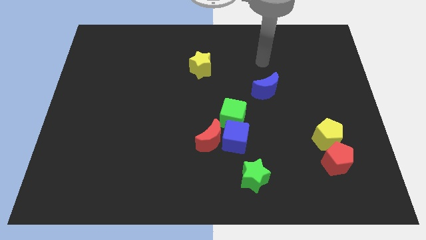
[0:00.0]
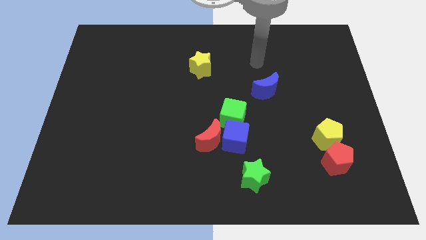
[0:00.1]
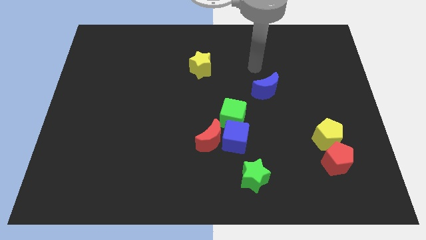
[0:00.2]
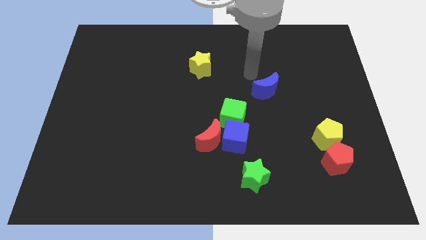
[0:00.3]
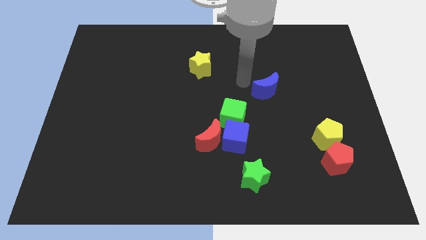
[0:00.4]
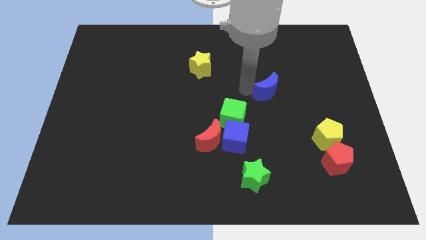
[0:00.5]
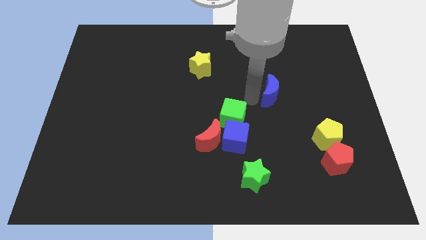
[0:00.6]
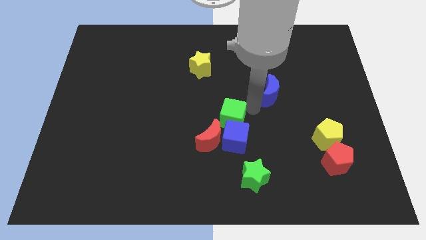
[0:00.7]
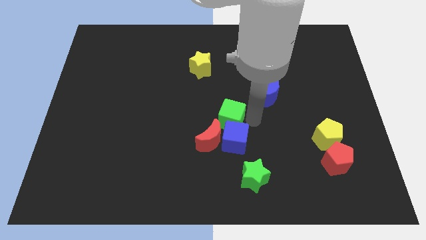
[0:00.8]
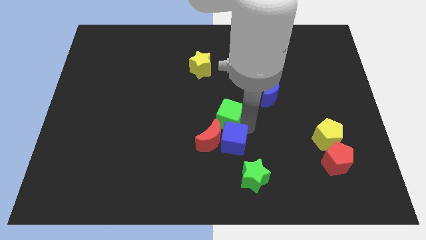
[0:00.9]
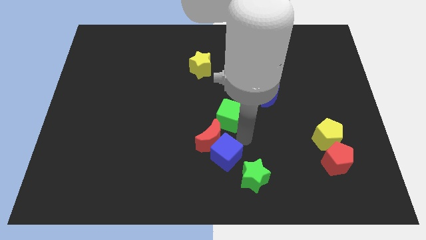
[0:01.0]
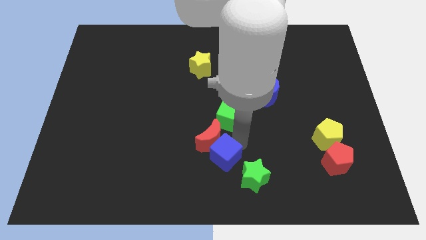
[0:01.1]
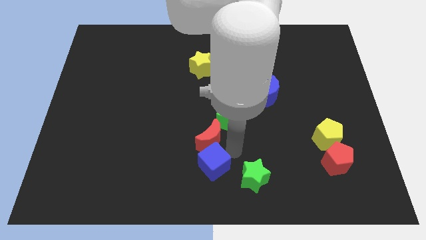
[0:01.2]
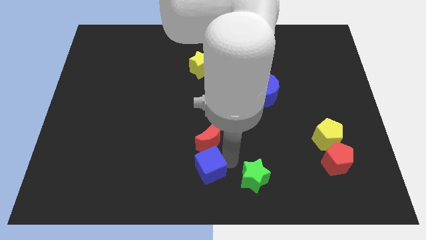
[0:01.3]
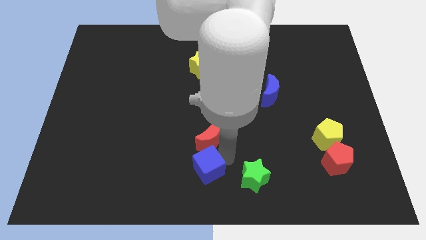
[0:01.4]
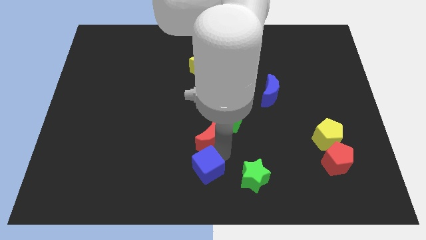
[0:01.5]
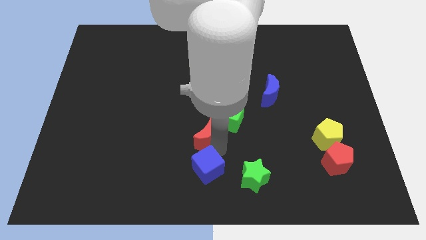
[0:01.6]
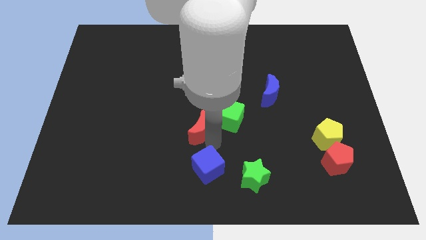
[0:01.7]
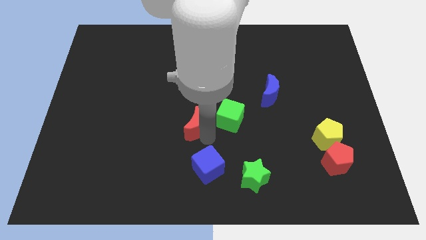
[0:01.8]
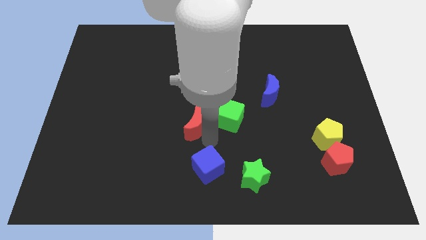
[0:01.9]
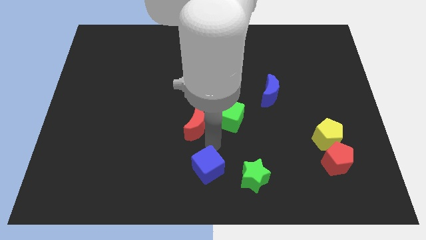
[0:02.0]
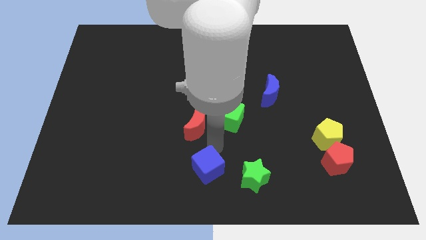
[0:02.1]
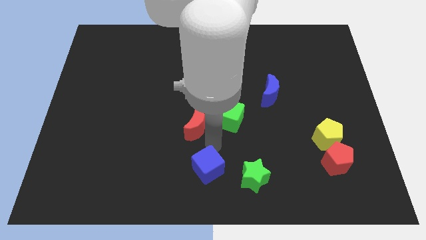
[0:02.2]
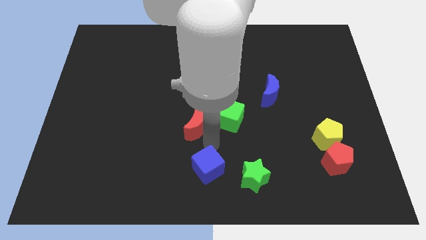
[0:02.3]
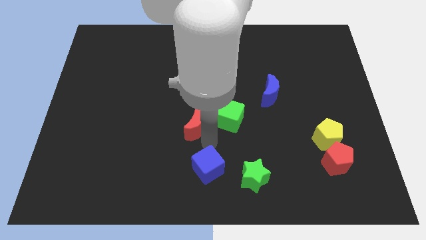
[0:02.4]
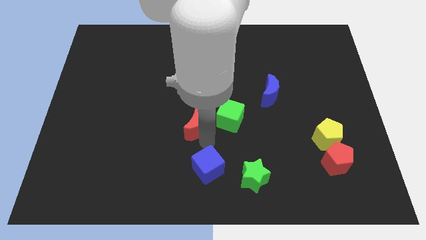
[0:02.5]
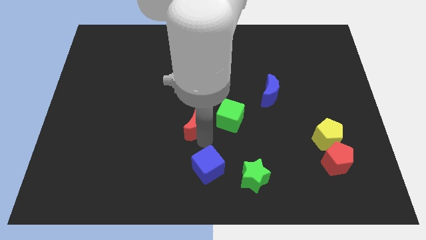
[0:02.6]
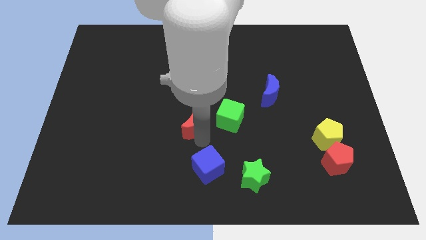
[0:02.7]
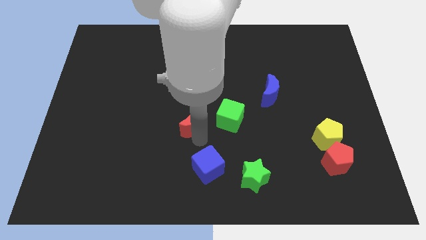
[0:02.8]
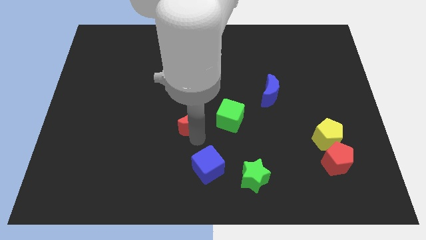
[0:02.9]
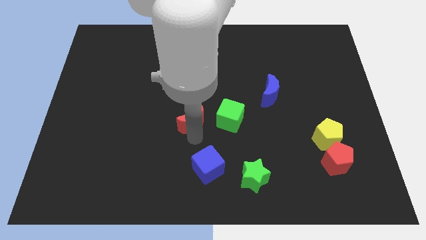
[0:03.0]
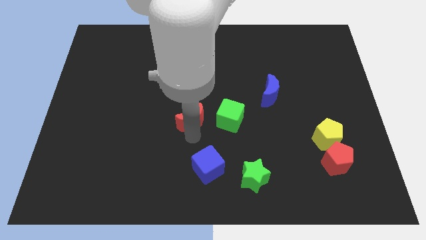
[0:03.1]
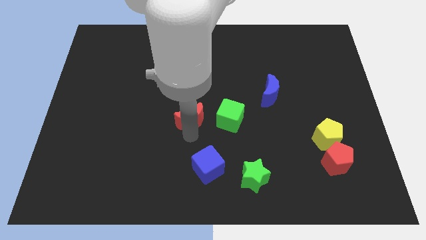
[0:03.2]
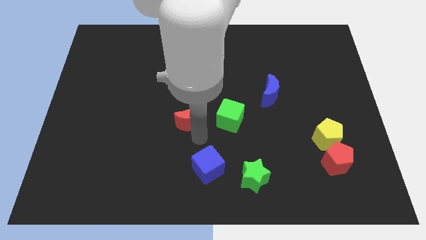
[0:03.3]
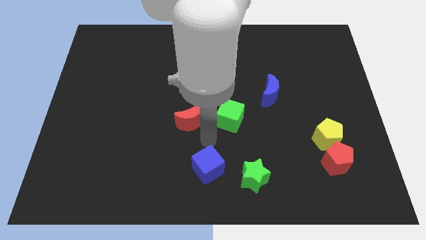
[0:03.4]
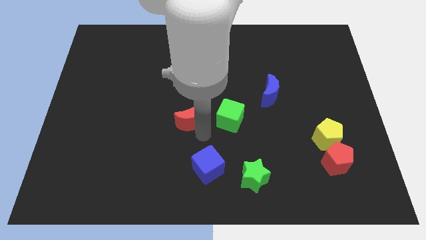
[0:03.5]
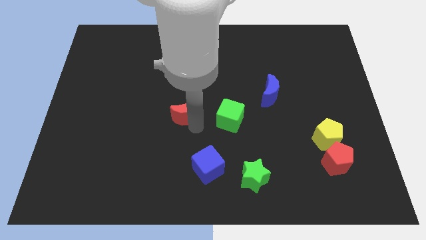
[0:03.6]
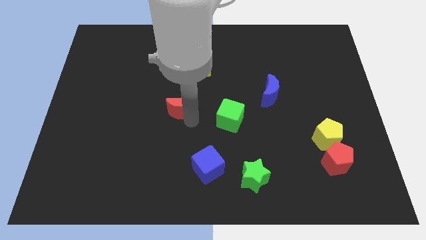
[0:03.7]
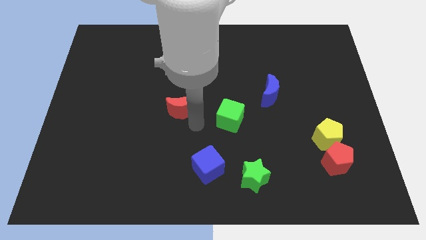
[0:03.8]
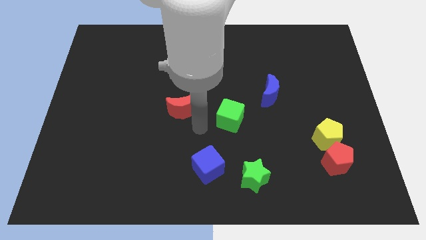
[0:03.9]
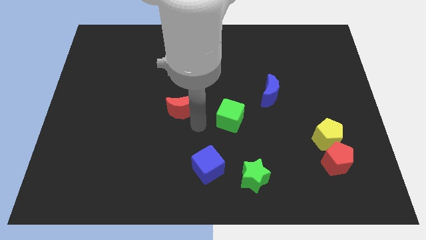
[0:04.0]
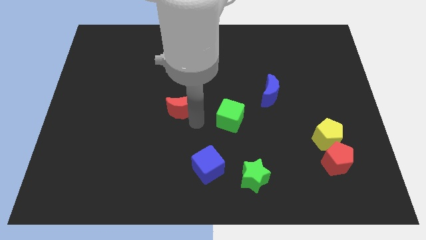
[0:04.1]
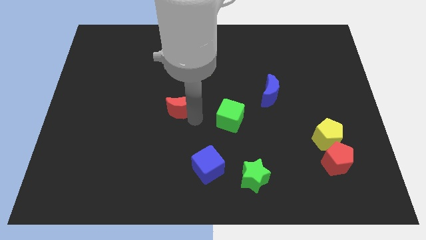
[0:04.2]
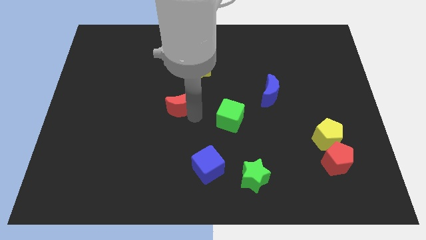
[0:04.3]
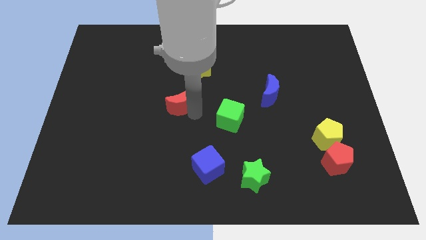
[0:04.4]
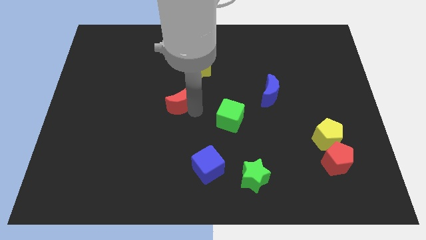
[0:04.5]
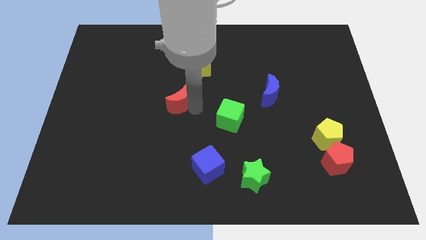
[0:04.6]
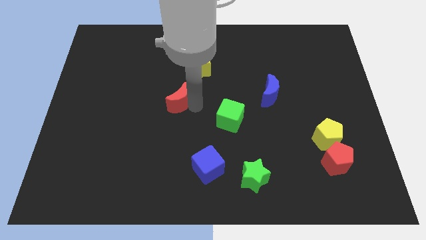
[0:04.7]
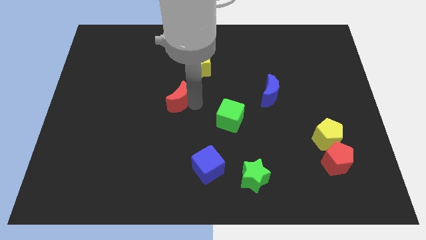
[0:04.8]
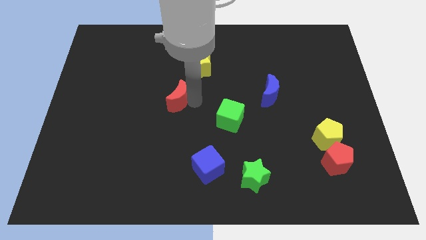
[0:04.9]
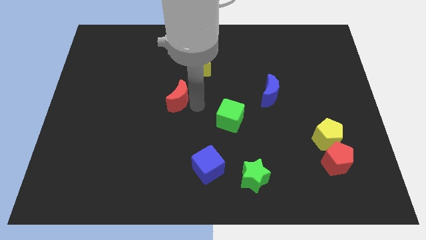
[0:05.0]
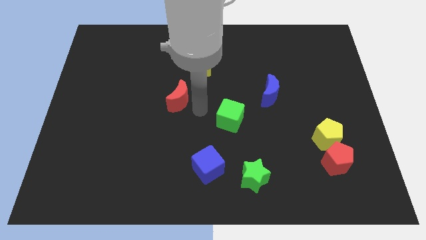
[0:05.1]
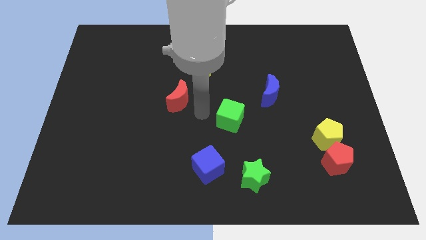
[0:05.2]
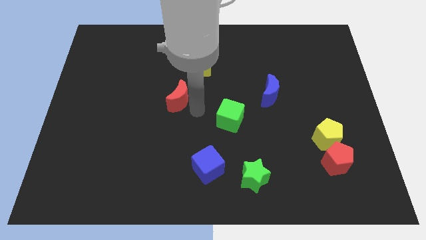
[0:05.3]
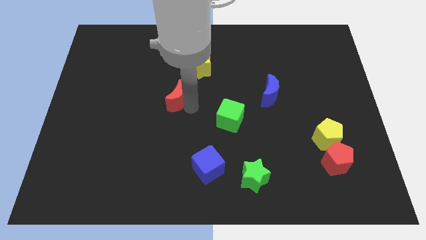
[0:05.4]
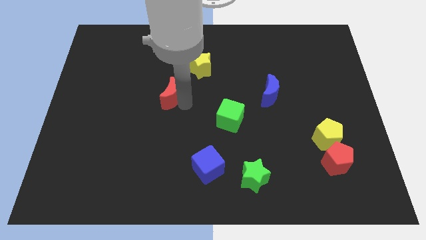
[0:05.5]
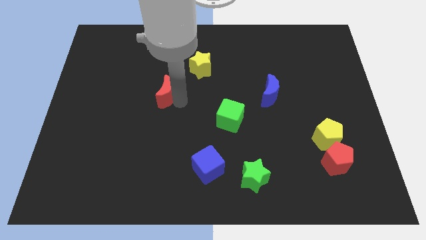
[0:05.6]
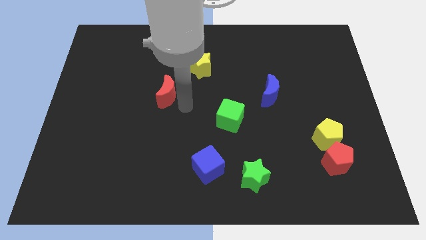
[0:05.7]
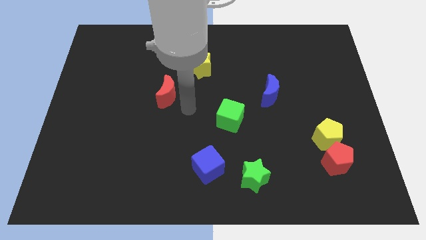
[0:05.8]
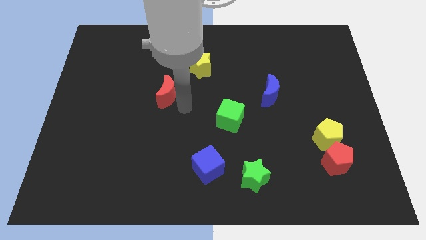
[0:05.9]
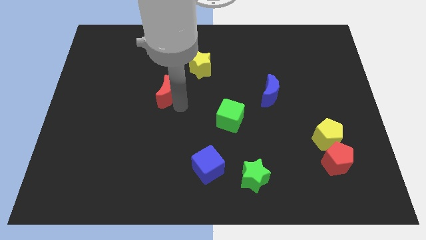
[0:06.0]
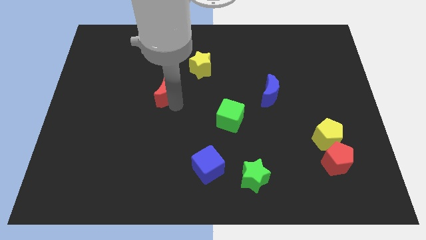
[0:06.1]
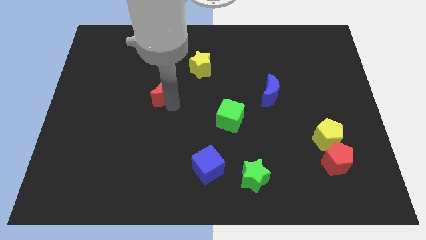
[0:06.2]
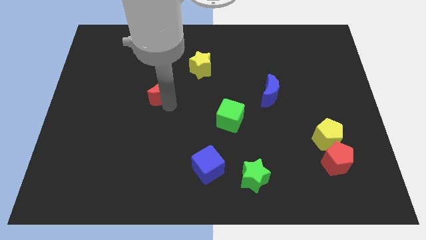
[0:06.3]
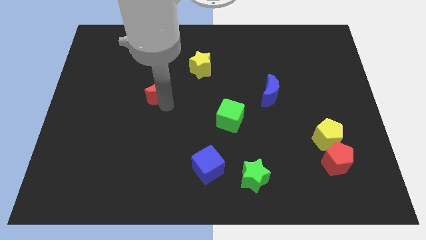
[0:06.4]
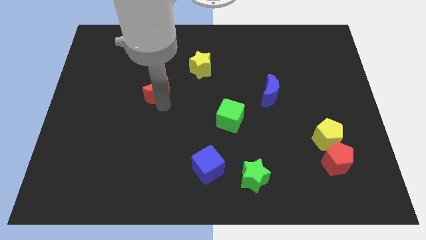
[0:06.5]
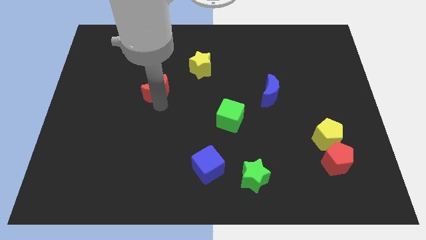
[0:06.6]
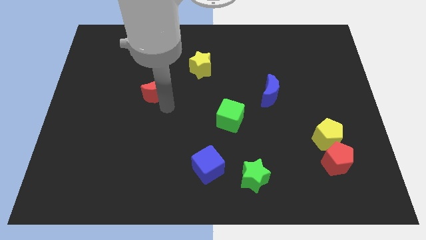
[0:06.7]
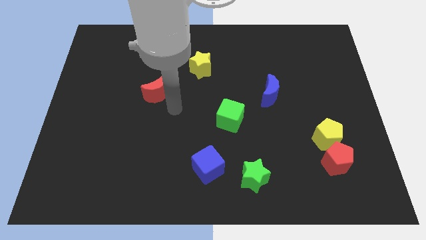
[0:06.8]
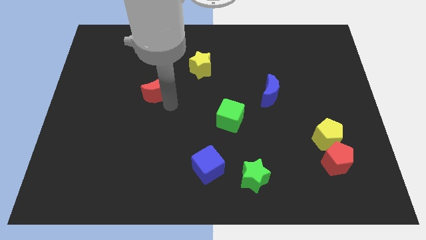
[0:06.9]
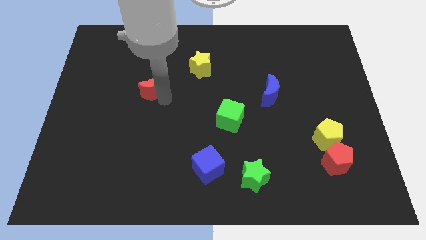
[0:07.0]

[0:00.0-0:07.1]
move the red moon up and left diagonally

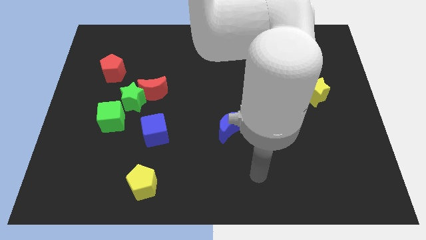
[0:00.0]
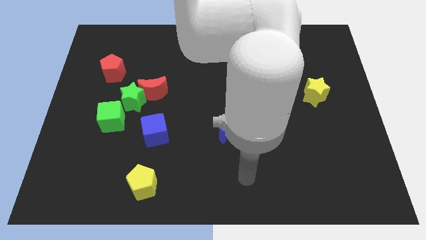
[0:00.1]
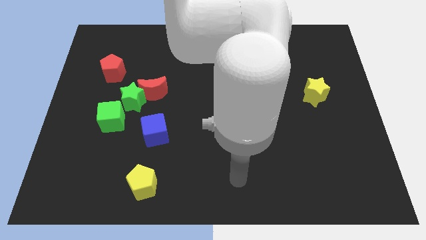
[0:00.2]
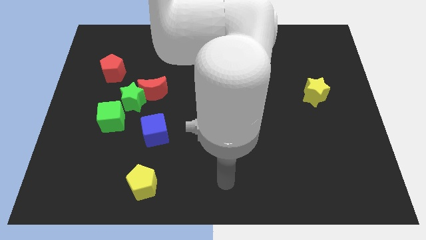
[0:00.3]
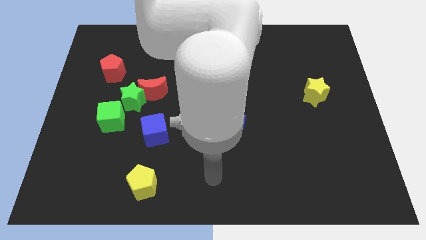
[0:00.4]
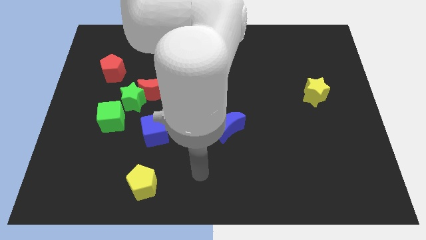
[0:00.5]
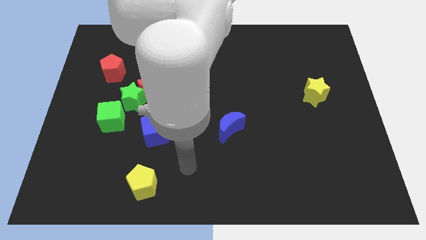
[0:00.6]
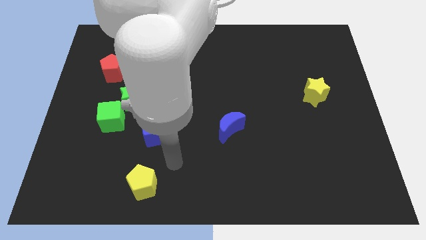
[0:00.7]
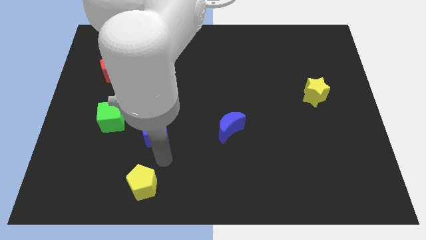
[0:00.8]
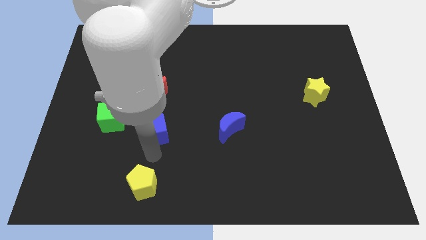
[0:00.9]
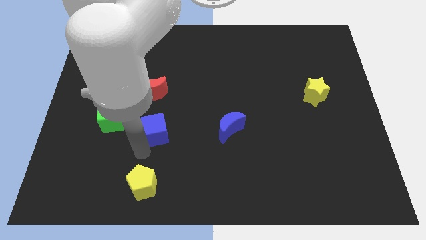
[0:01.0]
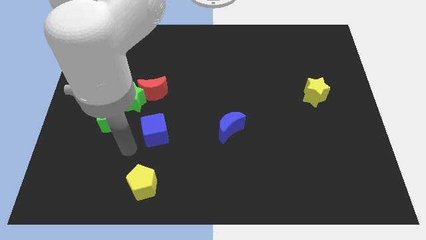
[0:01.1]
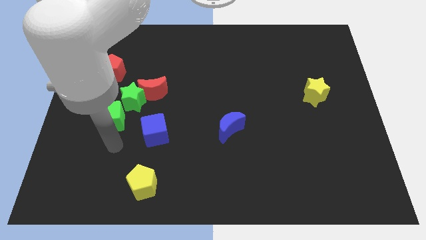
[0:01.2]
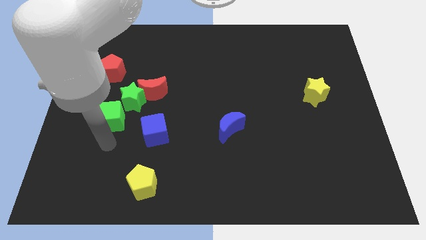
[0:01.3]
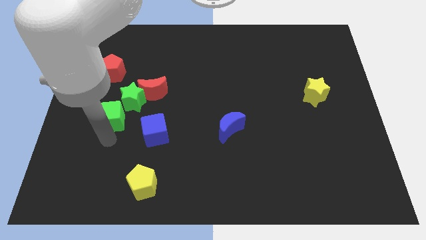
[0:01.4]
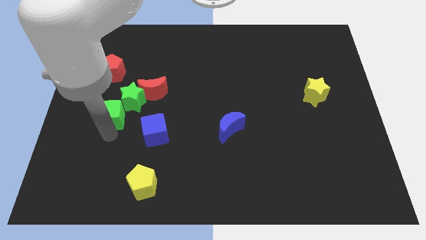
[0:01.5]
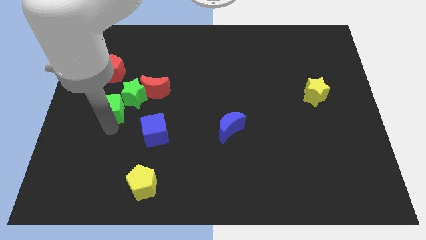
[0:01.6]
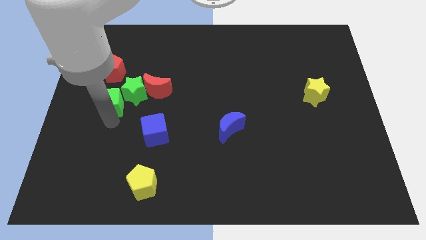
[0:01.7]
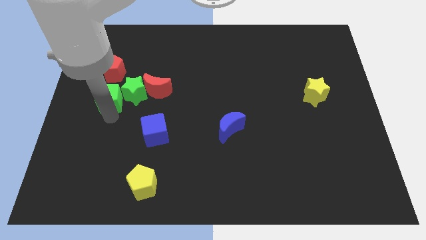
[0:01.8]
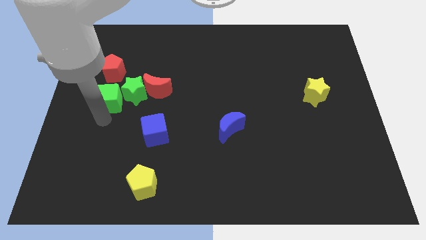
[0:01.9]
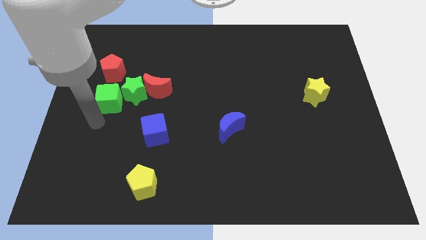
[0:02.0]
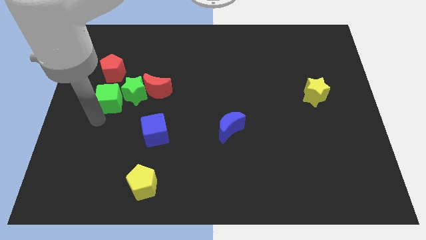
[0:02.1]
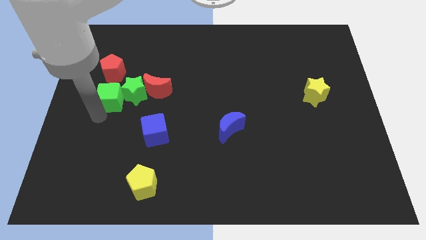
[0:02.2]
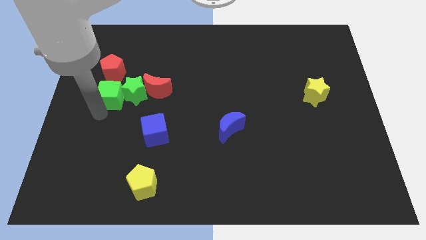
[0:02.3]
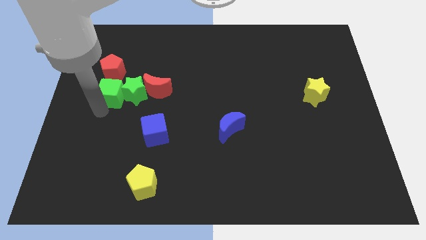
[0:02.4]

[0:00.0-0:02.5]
push the green cube up a little
